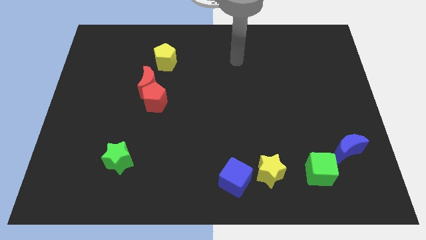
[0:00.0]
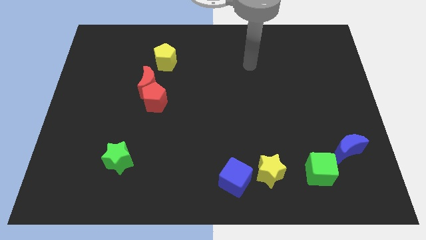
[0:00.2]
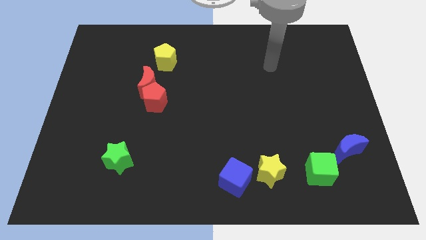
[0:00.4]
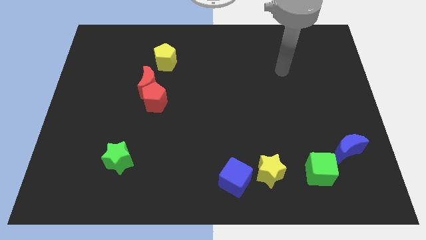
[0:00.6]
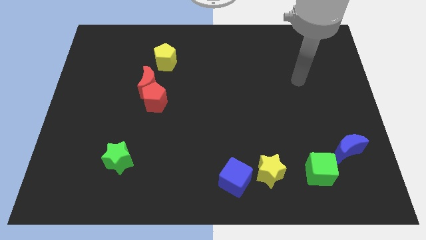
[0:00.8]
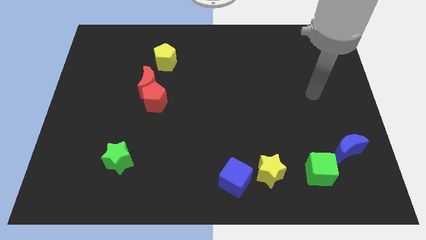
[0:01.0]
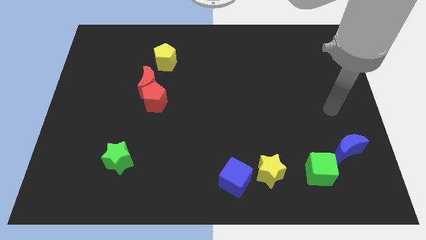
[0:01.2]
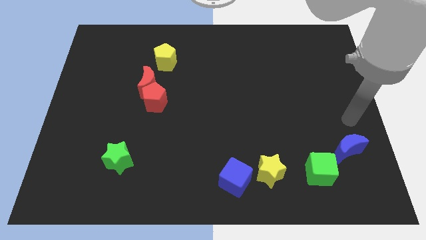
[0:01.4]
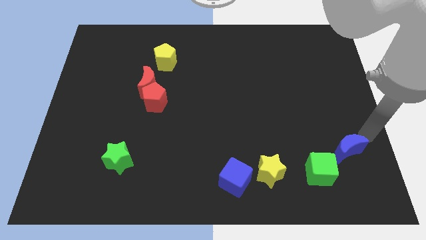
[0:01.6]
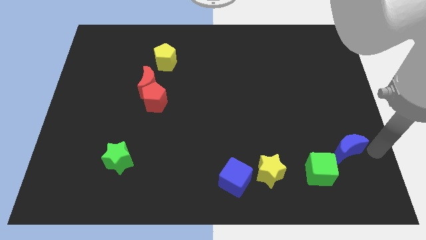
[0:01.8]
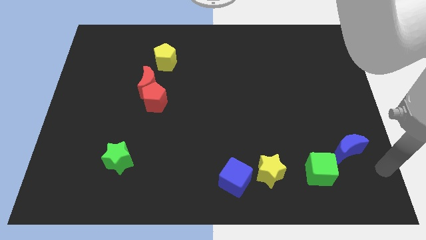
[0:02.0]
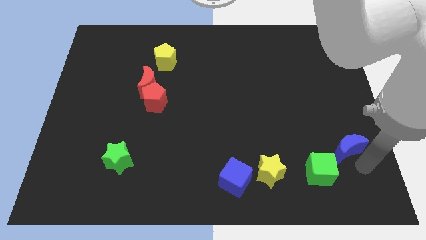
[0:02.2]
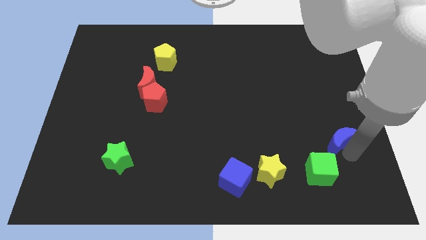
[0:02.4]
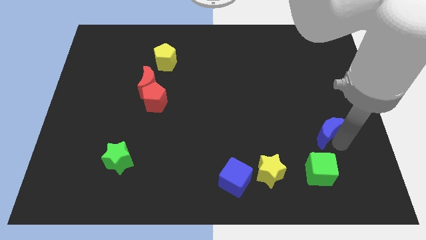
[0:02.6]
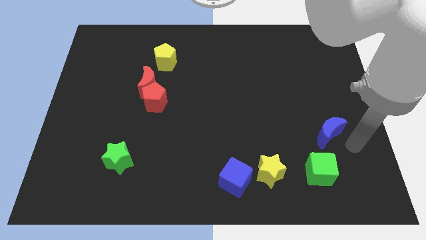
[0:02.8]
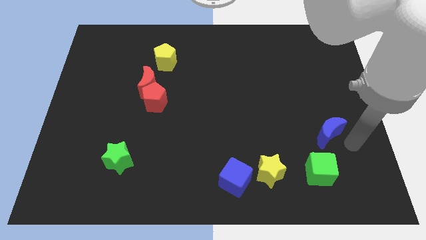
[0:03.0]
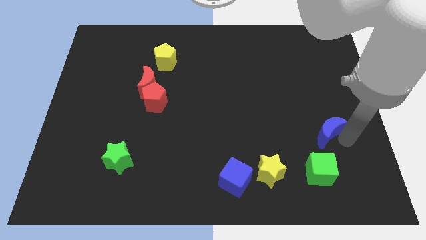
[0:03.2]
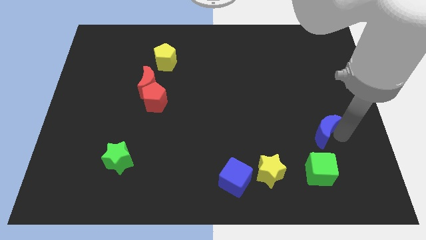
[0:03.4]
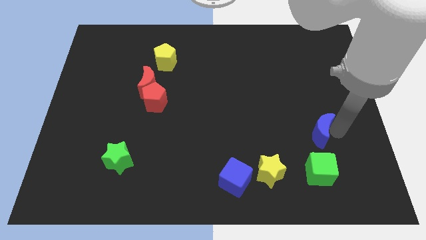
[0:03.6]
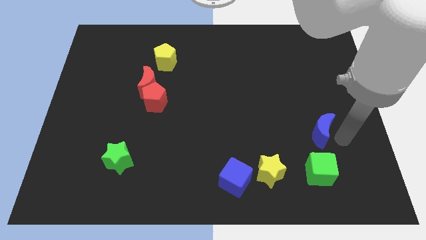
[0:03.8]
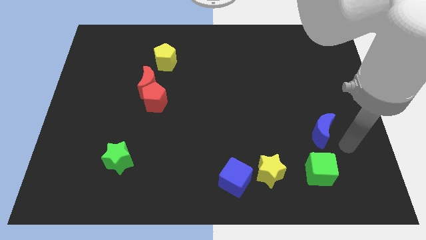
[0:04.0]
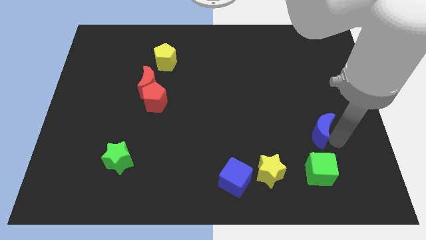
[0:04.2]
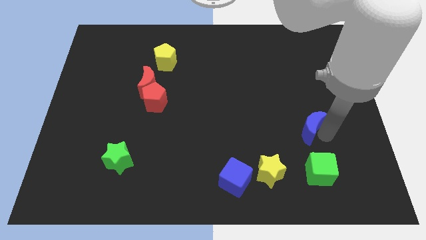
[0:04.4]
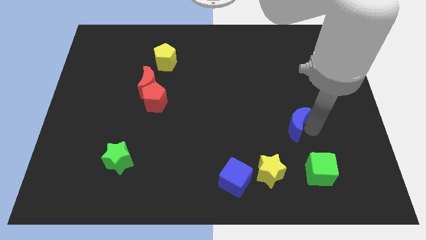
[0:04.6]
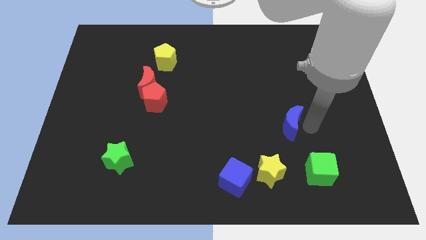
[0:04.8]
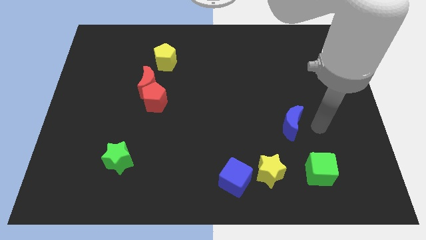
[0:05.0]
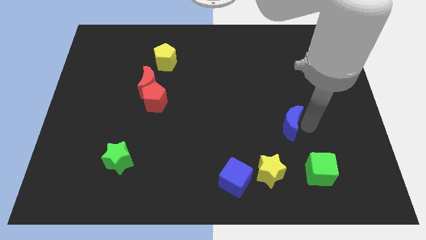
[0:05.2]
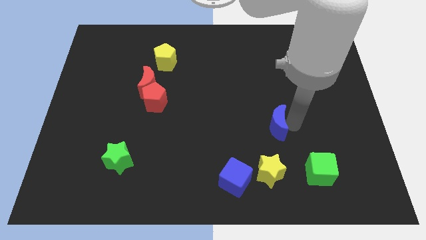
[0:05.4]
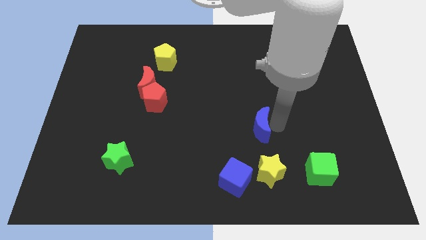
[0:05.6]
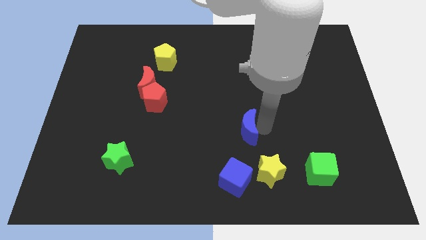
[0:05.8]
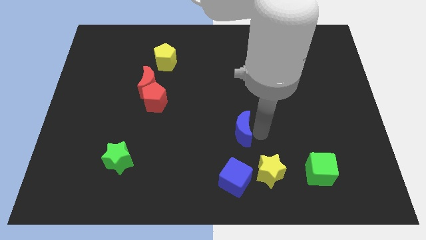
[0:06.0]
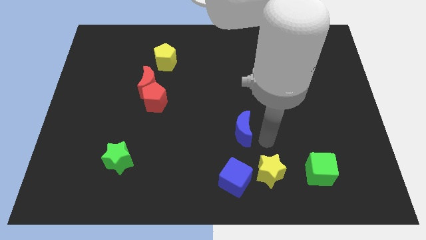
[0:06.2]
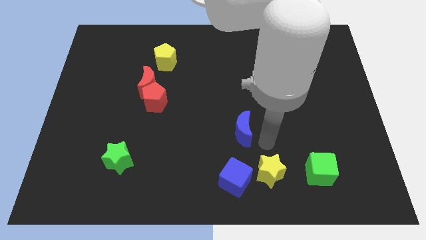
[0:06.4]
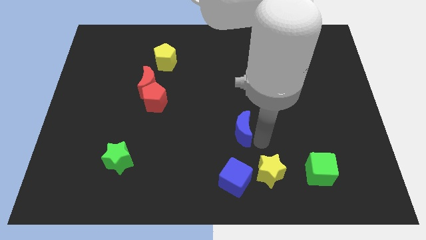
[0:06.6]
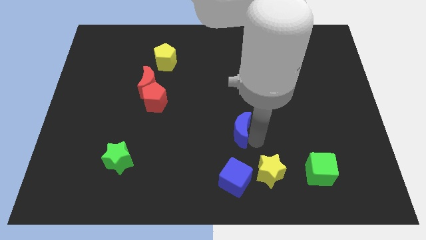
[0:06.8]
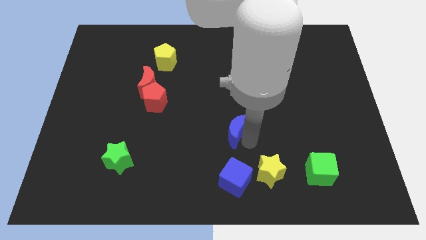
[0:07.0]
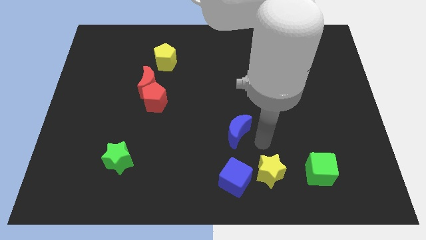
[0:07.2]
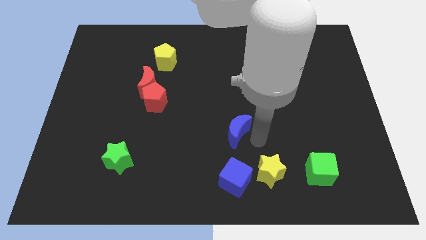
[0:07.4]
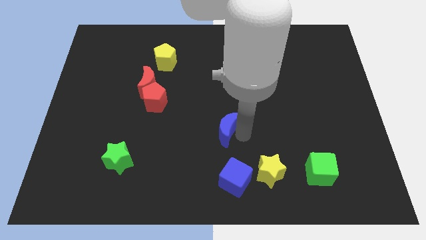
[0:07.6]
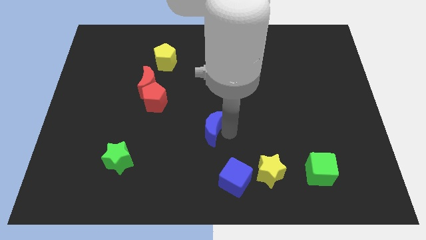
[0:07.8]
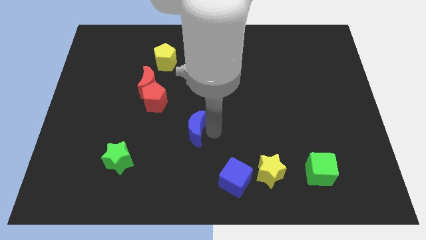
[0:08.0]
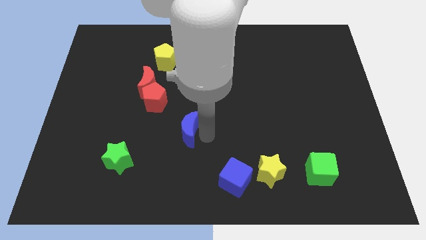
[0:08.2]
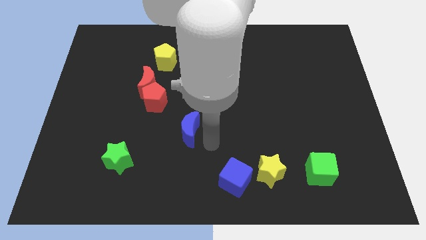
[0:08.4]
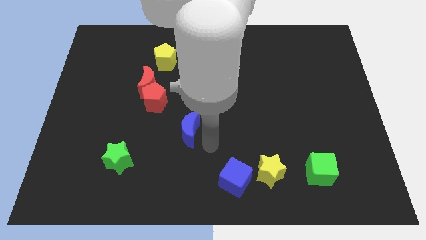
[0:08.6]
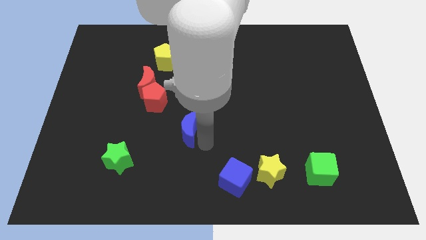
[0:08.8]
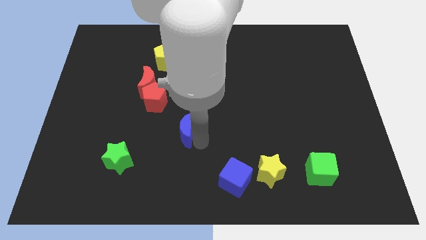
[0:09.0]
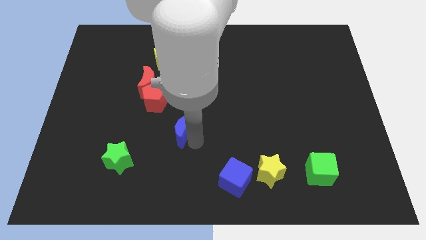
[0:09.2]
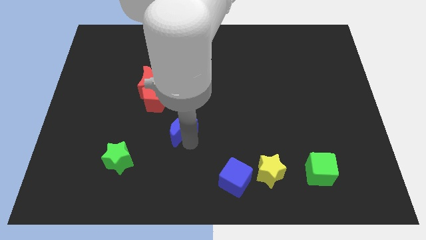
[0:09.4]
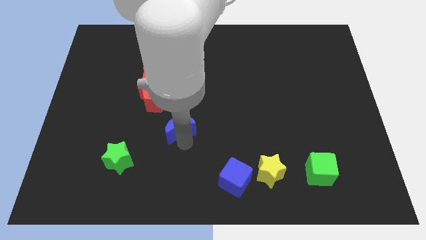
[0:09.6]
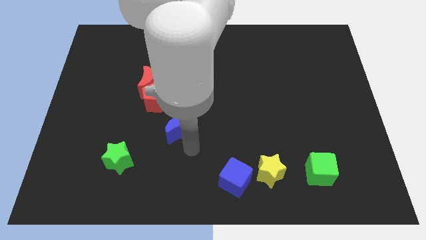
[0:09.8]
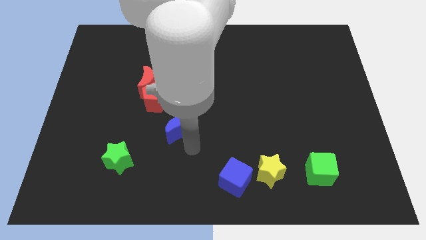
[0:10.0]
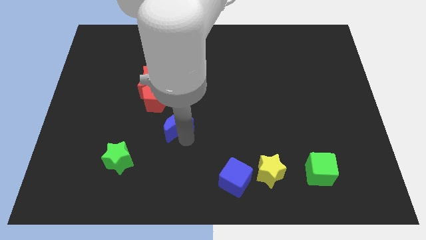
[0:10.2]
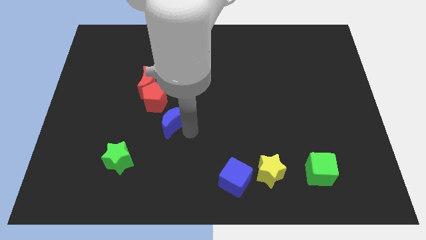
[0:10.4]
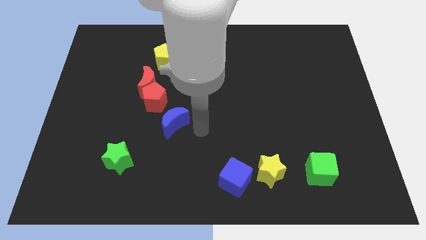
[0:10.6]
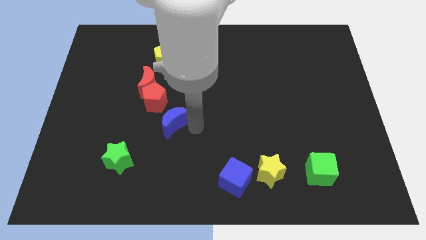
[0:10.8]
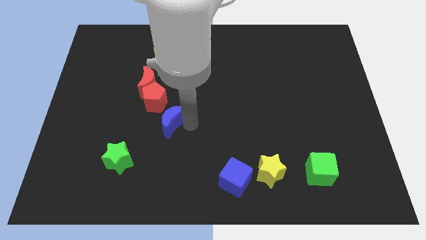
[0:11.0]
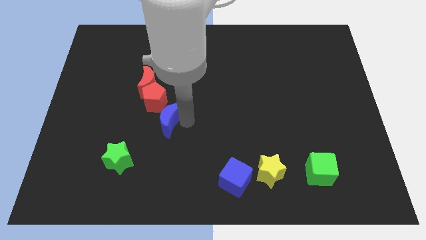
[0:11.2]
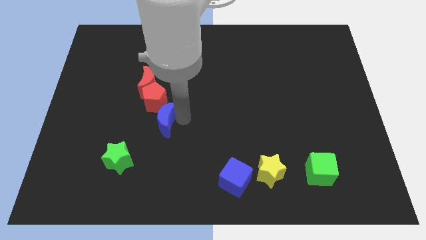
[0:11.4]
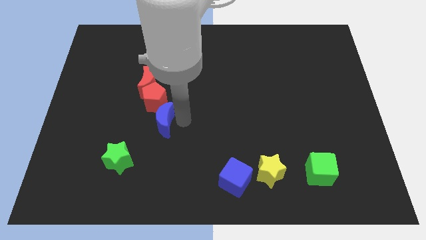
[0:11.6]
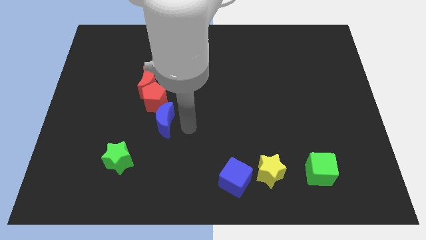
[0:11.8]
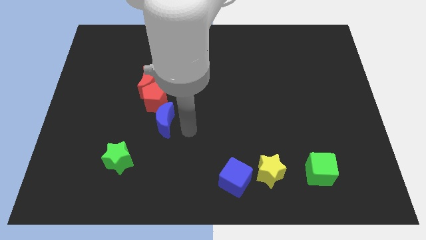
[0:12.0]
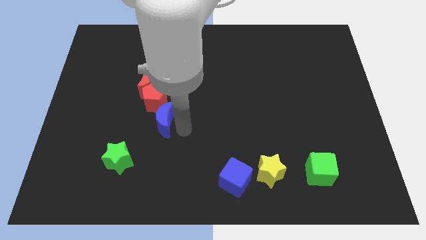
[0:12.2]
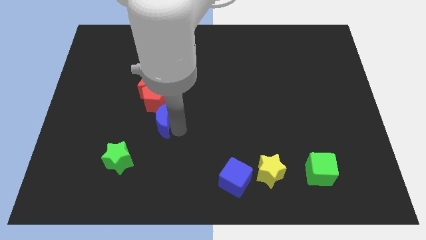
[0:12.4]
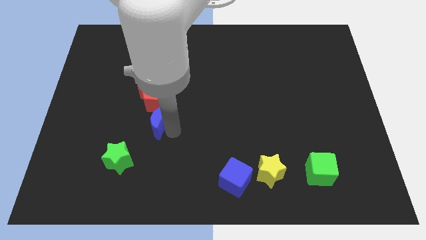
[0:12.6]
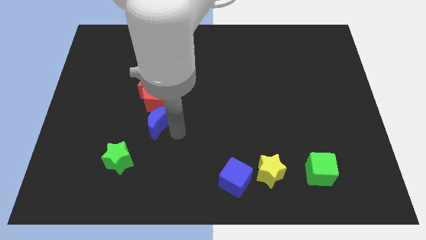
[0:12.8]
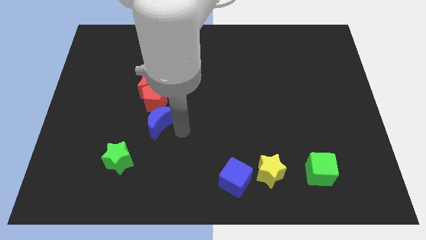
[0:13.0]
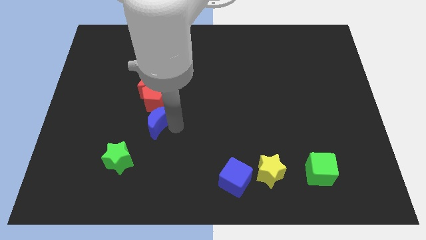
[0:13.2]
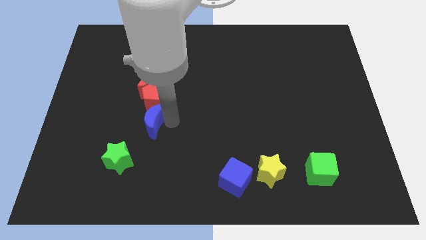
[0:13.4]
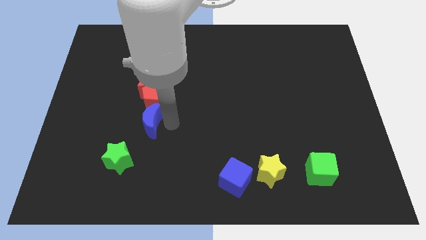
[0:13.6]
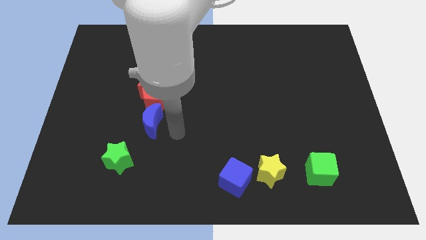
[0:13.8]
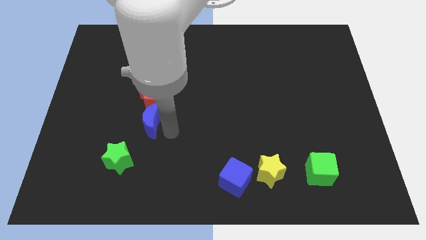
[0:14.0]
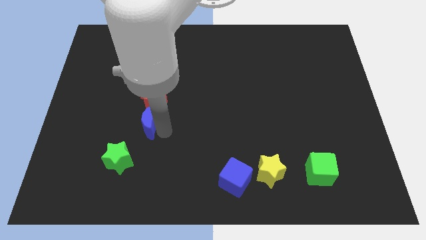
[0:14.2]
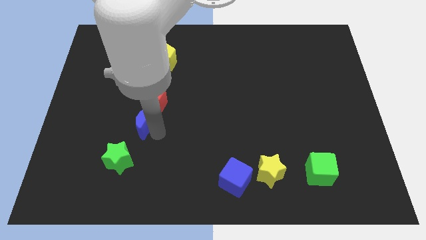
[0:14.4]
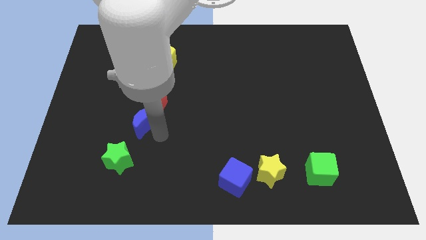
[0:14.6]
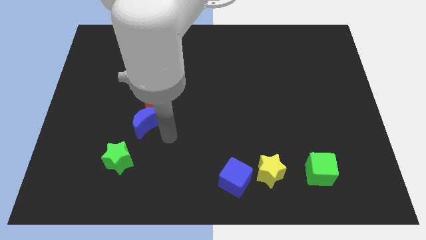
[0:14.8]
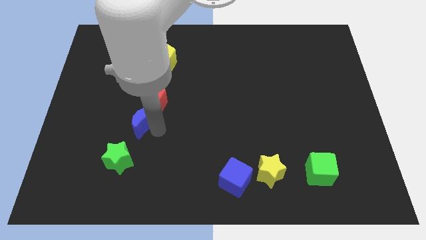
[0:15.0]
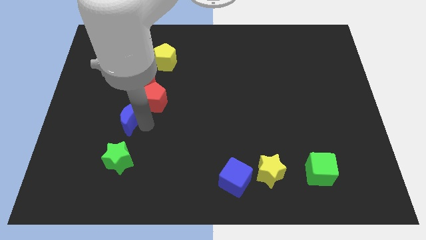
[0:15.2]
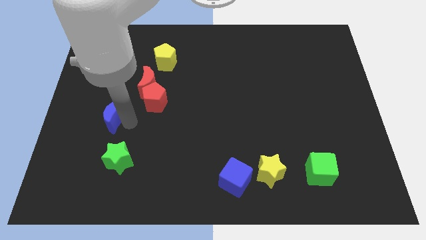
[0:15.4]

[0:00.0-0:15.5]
put the blue moon to the left of the red pentagon
